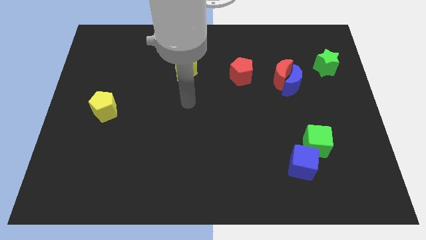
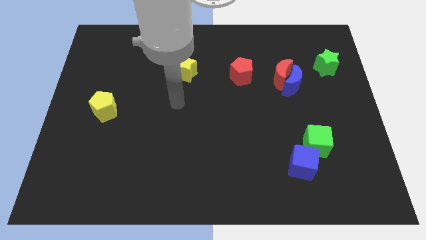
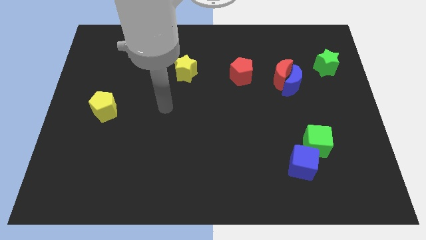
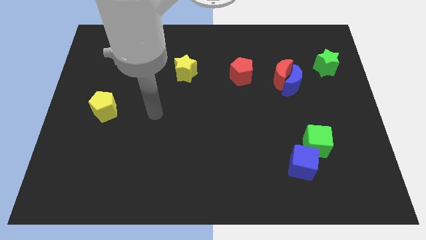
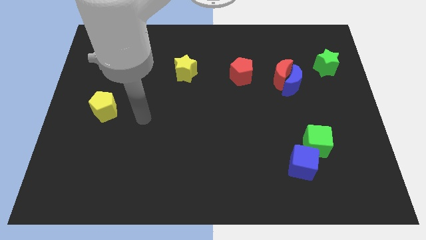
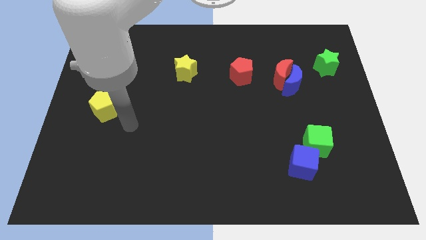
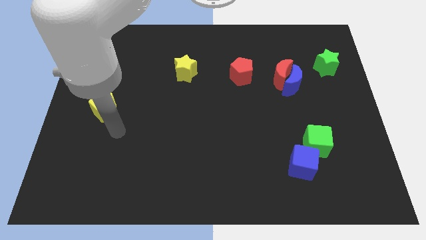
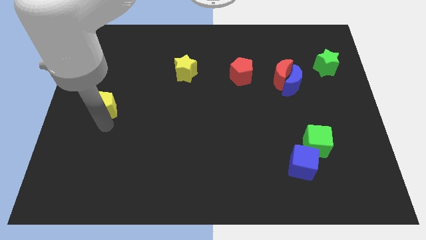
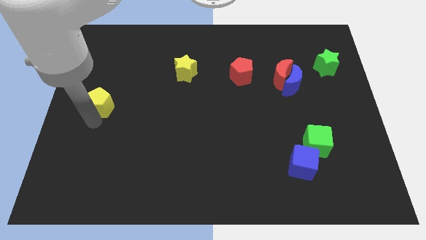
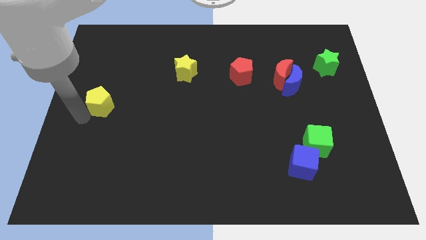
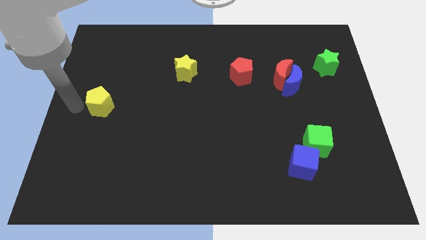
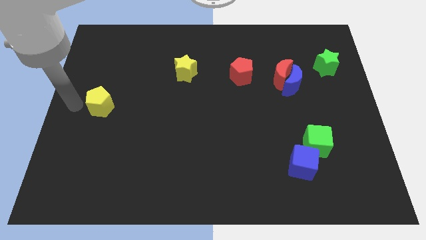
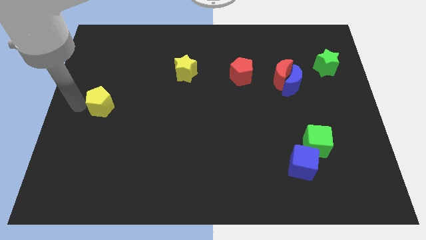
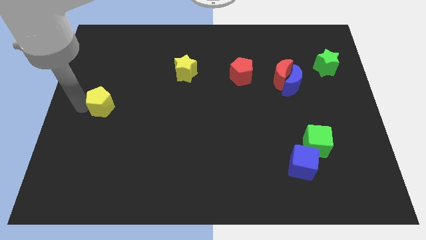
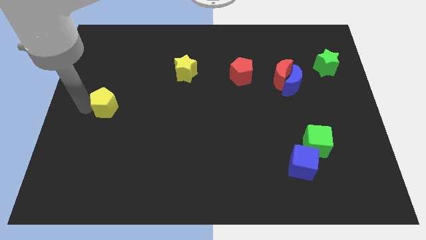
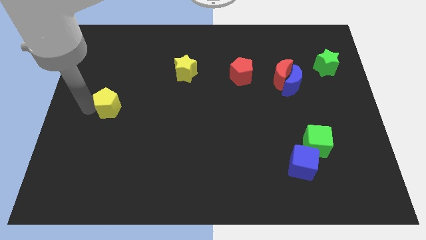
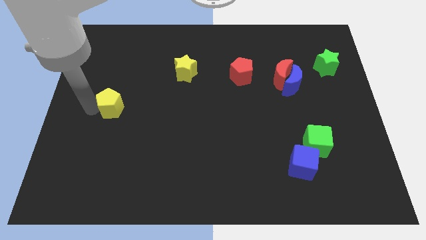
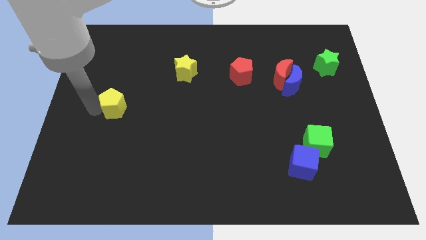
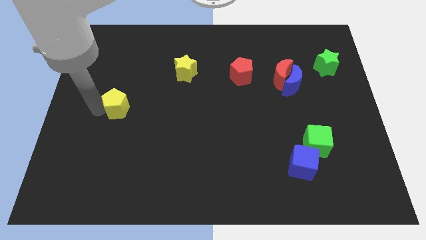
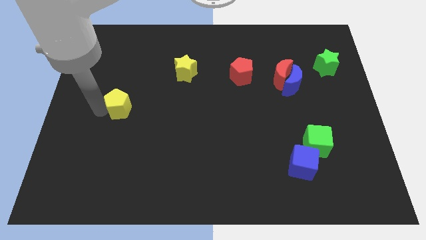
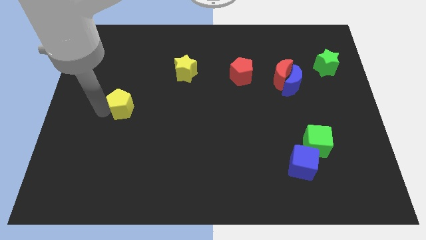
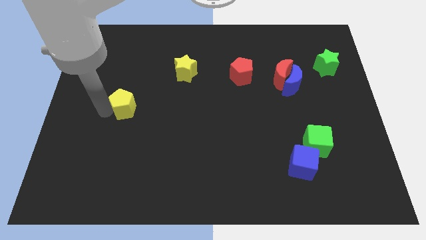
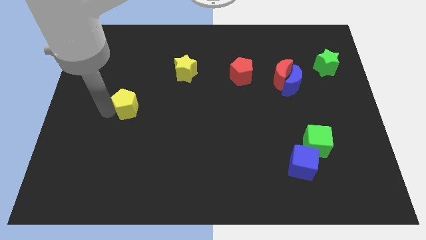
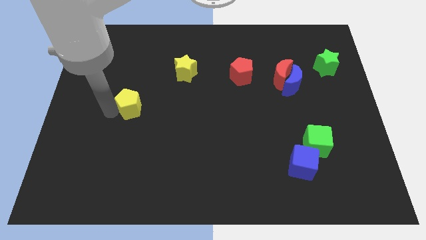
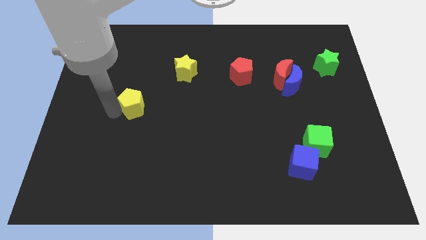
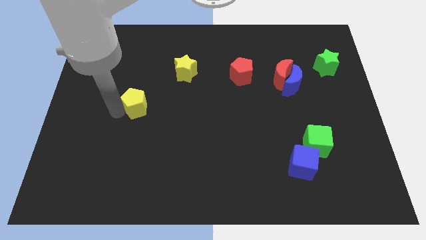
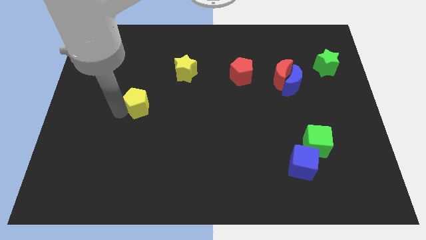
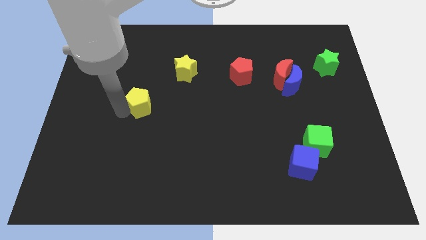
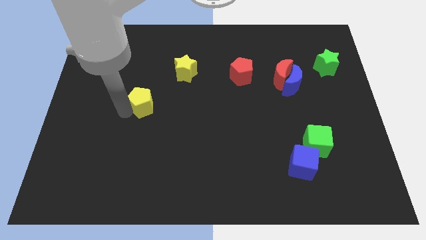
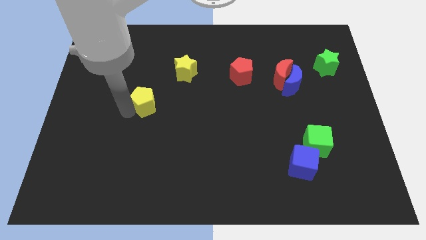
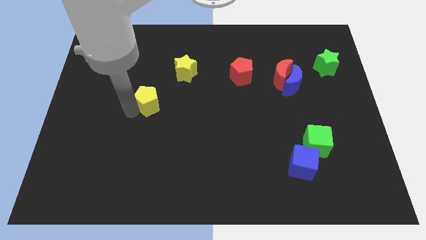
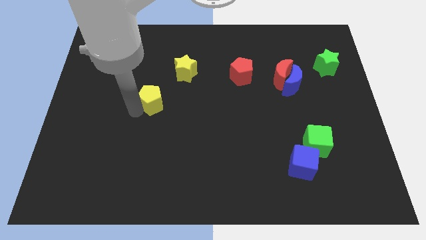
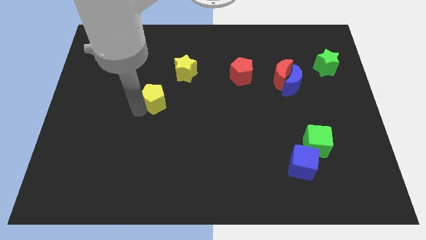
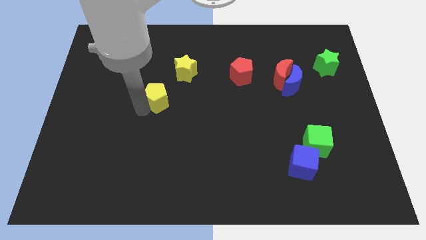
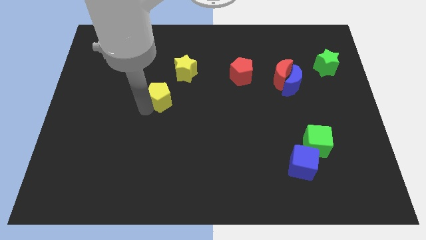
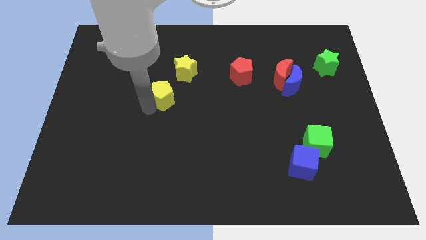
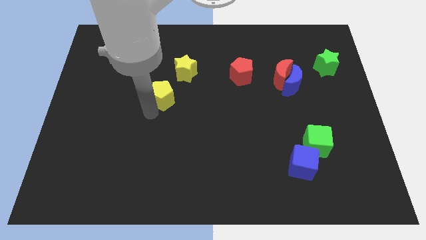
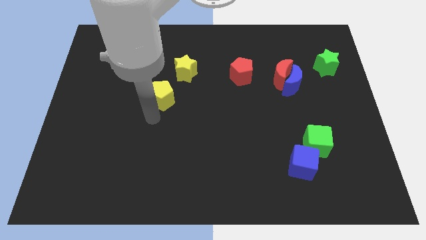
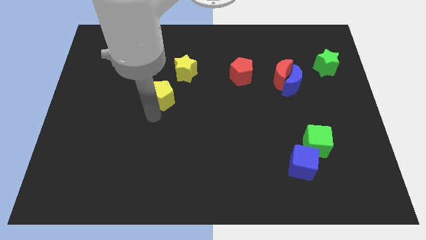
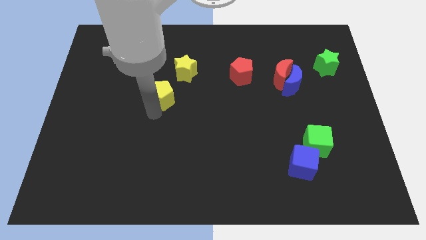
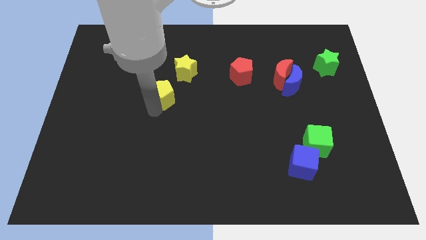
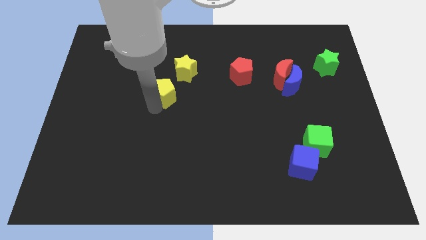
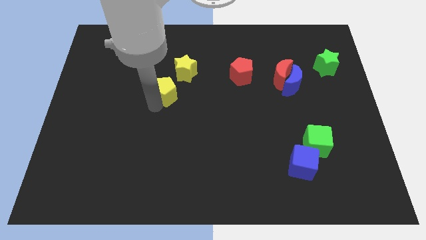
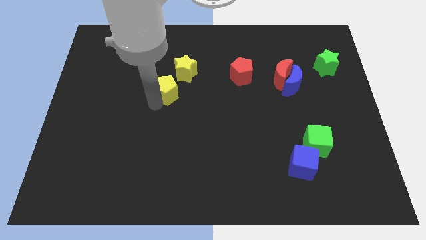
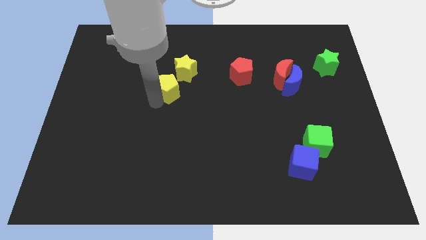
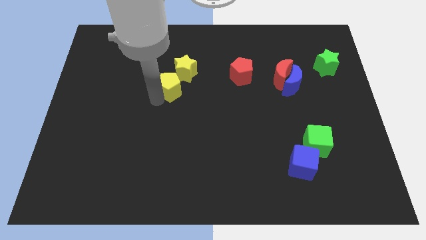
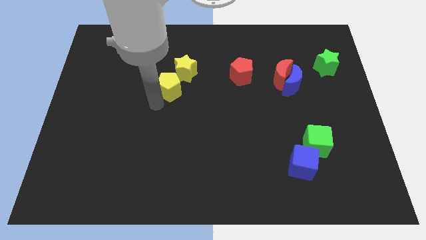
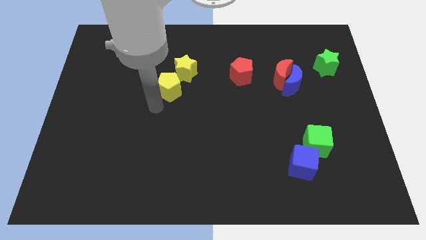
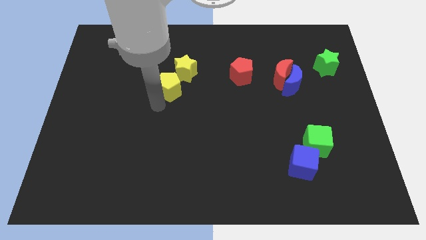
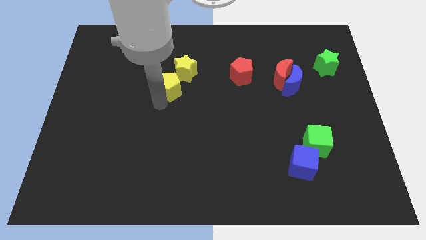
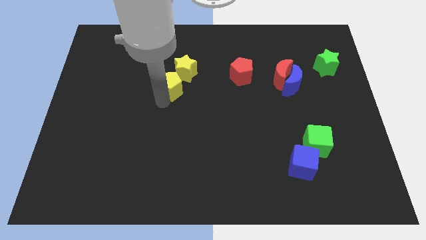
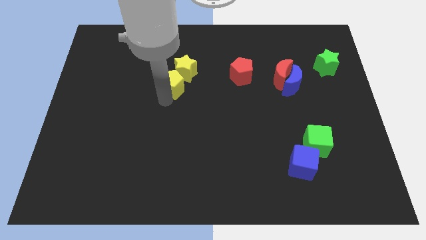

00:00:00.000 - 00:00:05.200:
push the yellow pentagon to the yellow star
